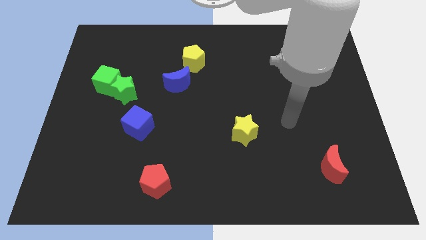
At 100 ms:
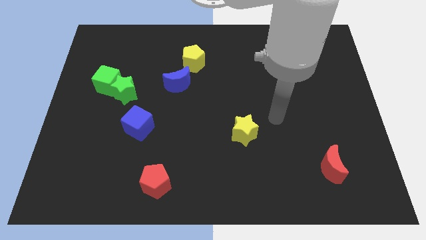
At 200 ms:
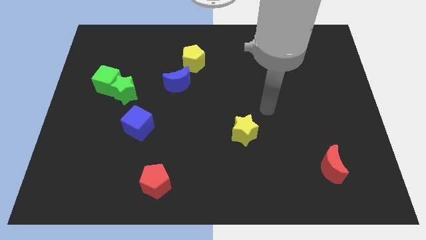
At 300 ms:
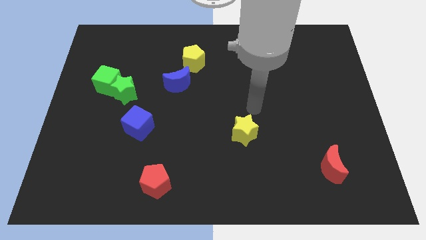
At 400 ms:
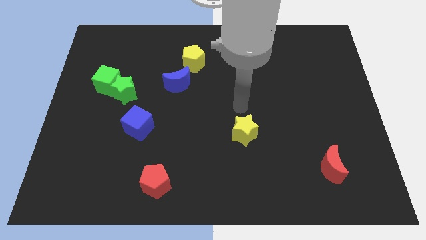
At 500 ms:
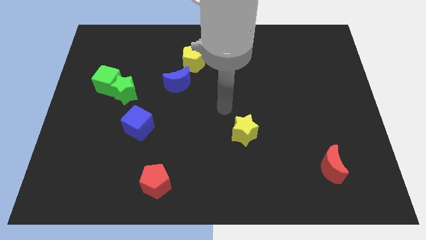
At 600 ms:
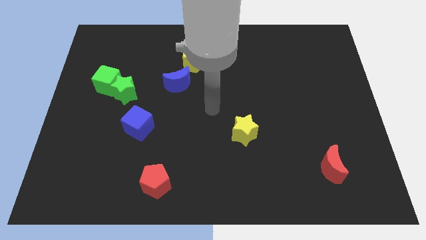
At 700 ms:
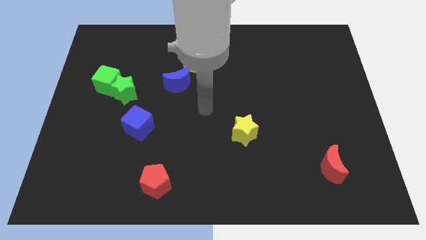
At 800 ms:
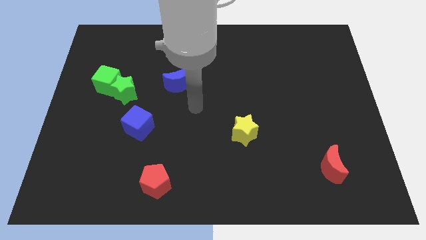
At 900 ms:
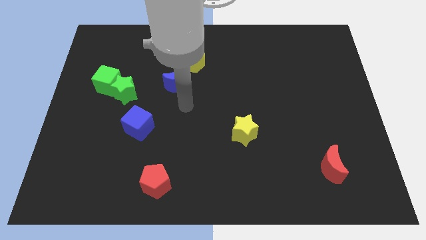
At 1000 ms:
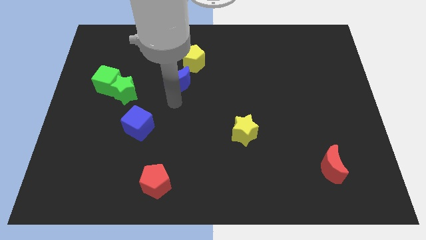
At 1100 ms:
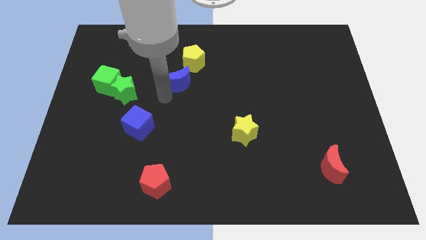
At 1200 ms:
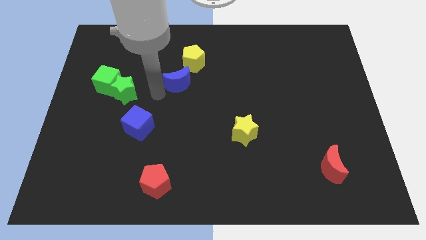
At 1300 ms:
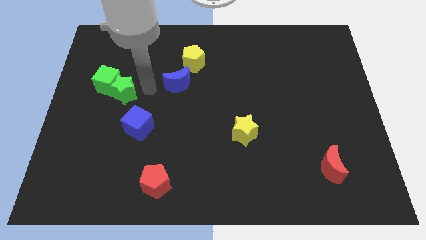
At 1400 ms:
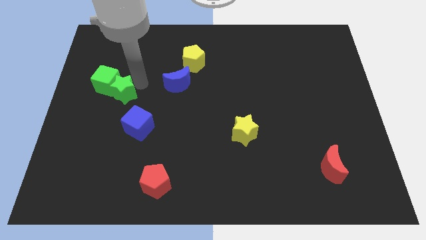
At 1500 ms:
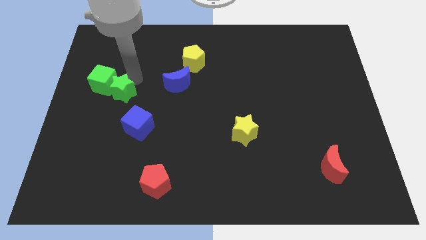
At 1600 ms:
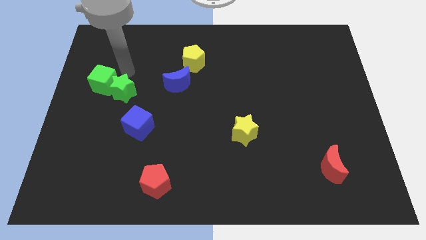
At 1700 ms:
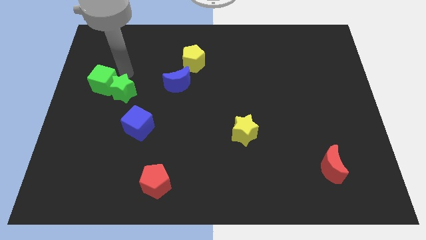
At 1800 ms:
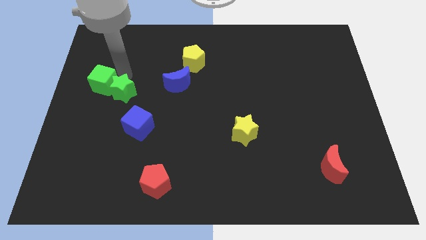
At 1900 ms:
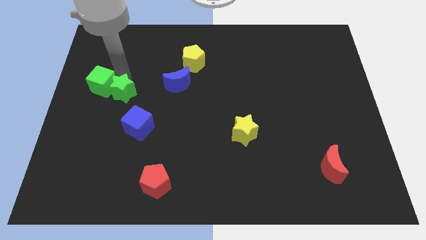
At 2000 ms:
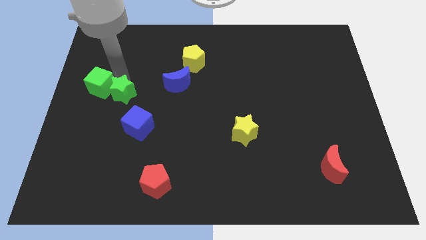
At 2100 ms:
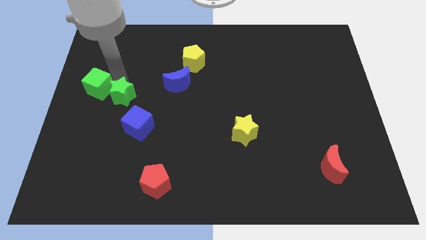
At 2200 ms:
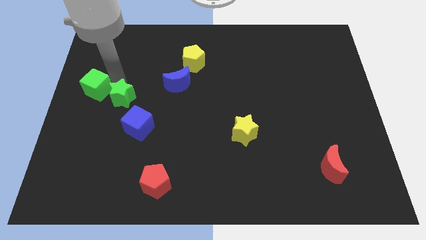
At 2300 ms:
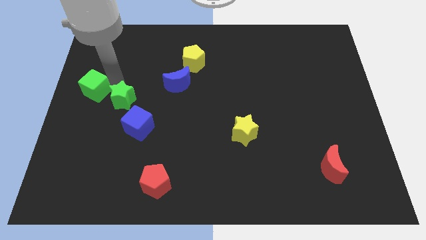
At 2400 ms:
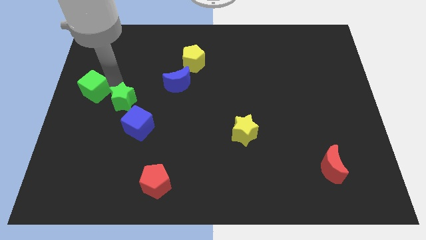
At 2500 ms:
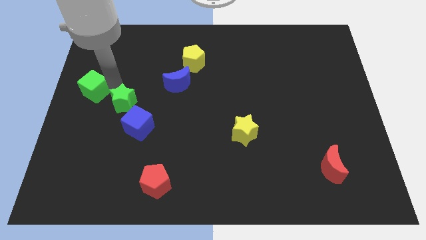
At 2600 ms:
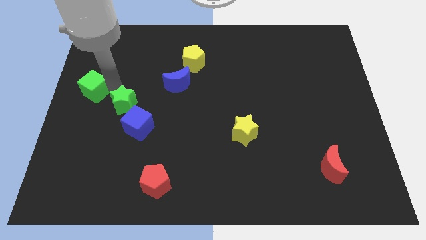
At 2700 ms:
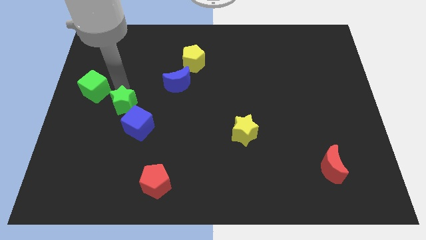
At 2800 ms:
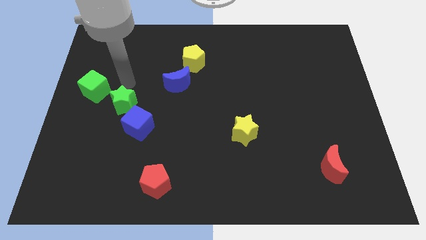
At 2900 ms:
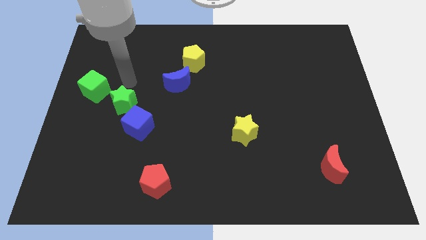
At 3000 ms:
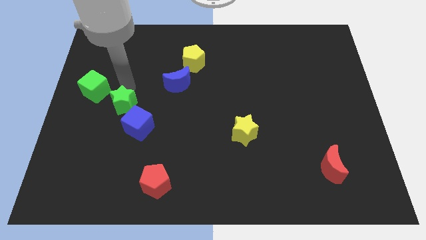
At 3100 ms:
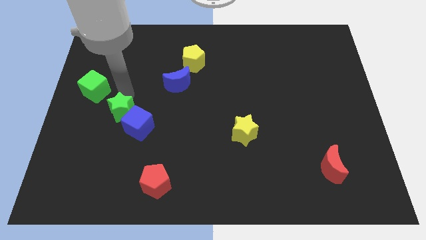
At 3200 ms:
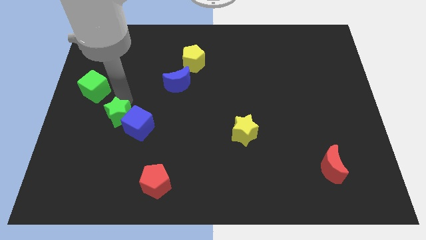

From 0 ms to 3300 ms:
push the green star a little down

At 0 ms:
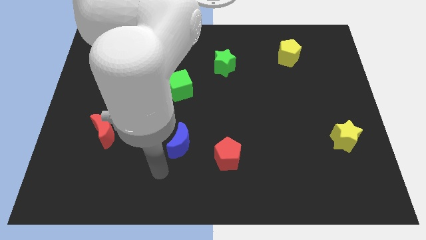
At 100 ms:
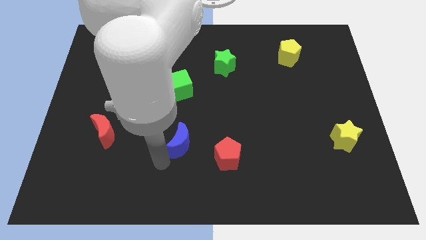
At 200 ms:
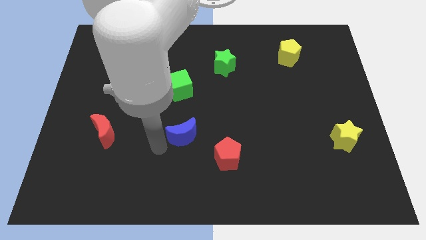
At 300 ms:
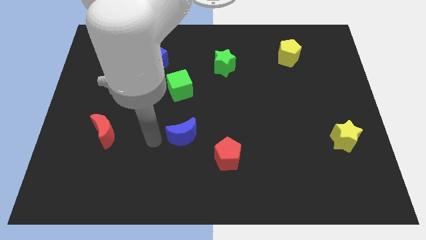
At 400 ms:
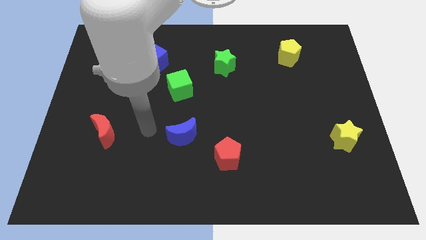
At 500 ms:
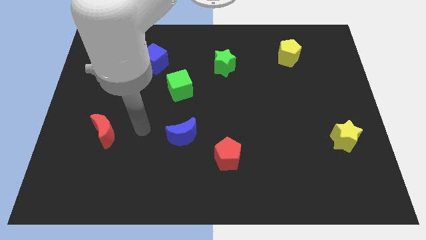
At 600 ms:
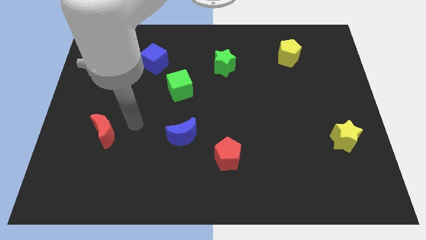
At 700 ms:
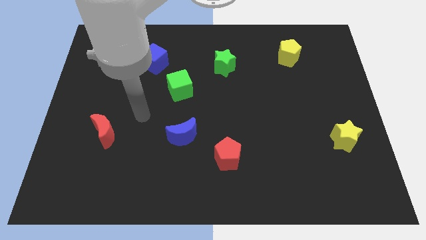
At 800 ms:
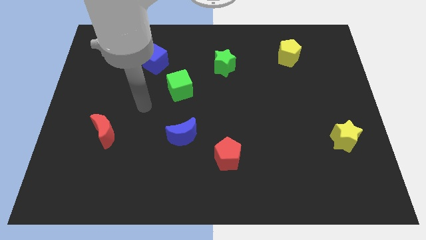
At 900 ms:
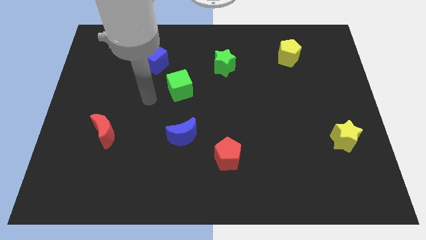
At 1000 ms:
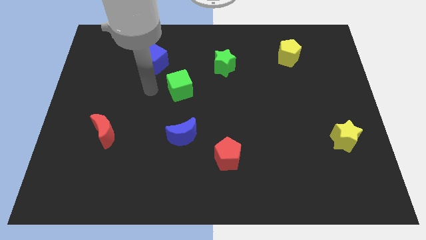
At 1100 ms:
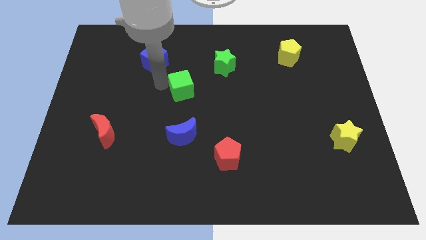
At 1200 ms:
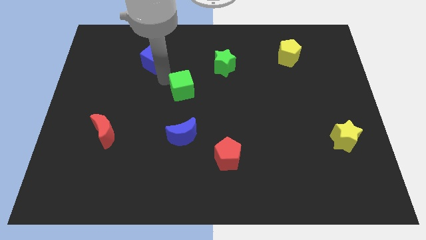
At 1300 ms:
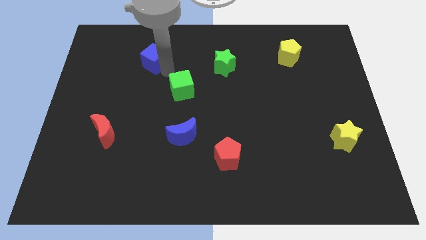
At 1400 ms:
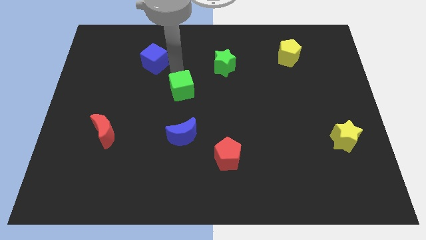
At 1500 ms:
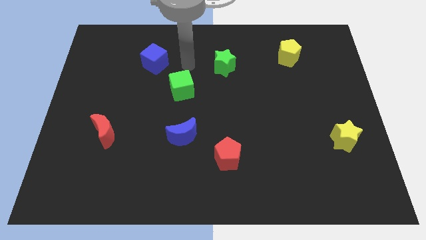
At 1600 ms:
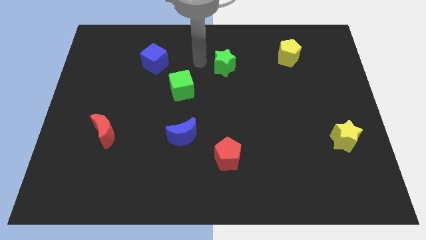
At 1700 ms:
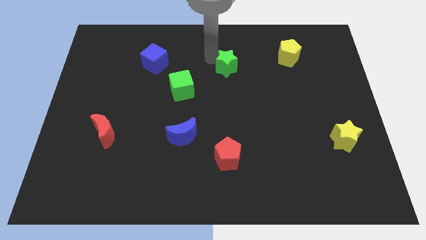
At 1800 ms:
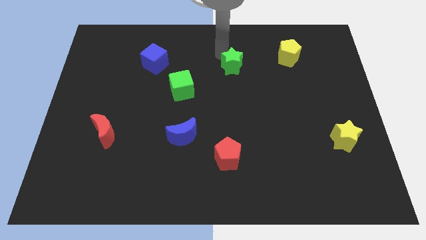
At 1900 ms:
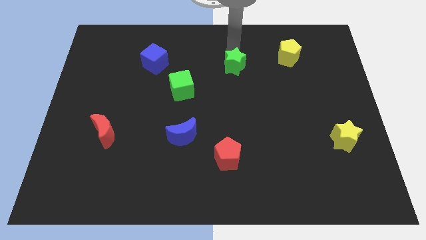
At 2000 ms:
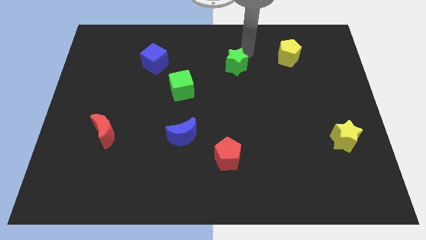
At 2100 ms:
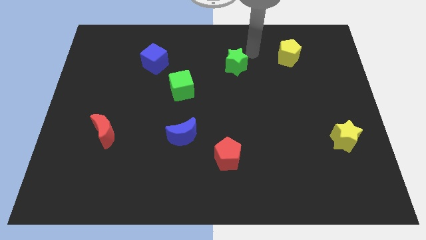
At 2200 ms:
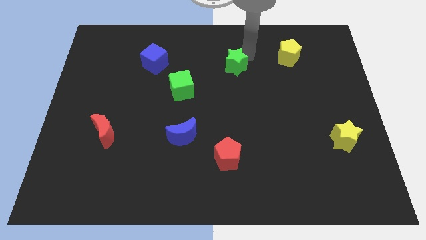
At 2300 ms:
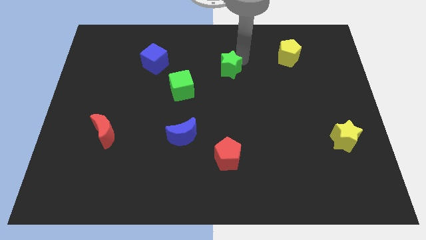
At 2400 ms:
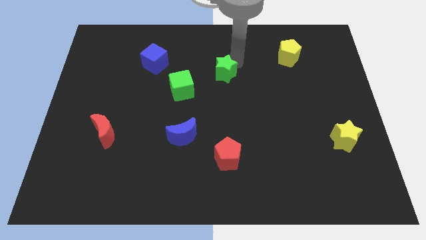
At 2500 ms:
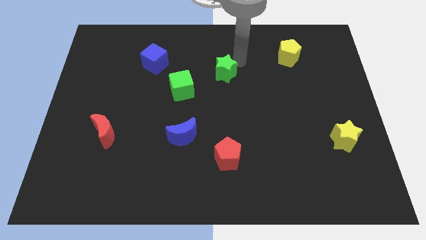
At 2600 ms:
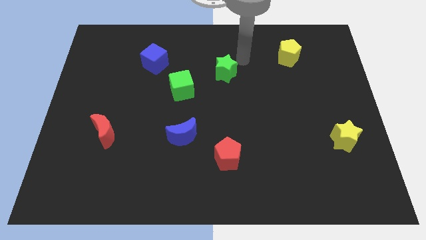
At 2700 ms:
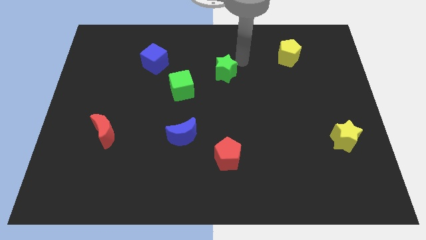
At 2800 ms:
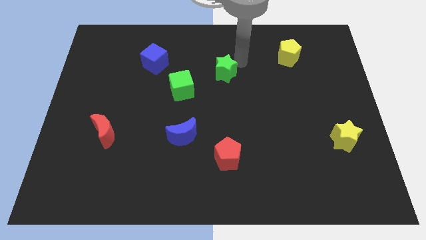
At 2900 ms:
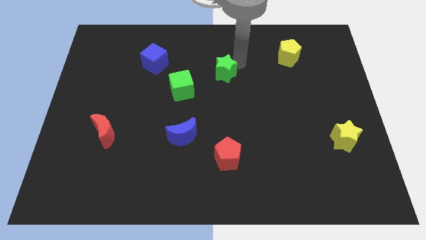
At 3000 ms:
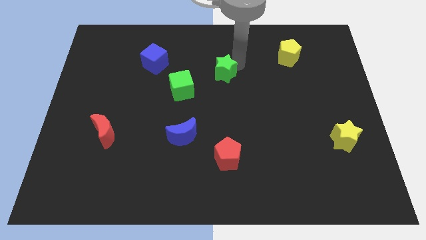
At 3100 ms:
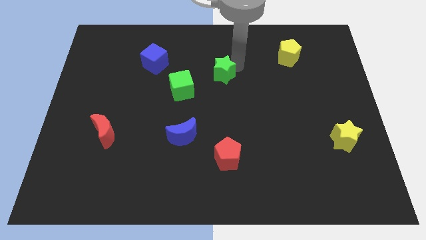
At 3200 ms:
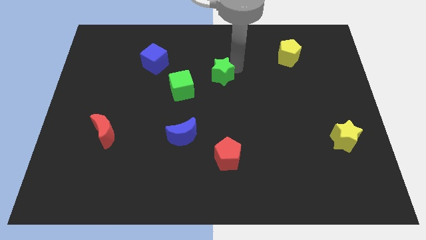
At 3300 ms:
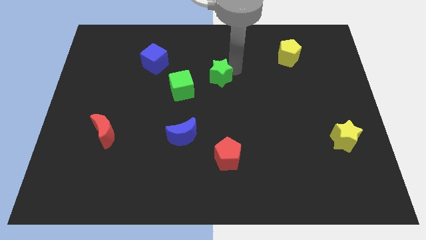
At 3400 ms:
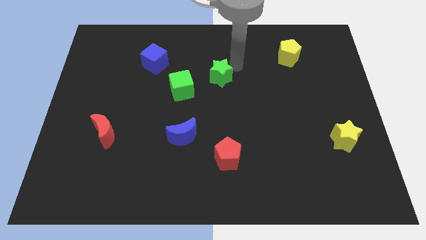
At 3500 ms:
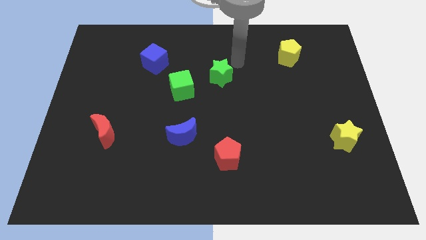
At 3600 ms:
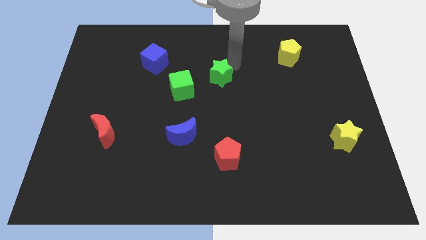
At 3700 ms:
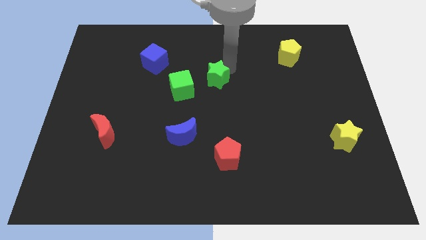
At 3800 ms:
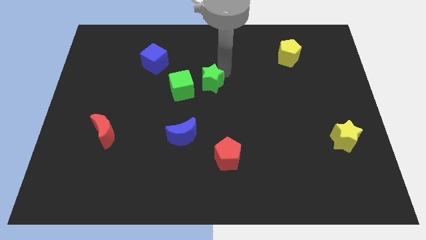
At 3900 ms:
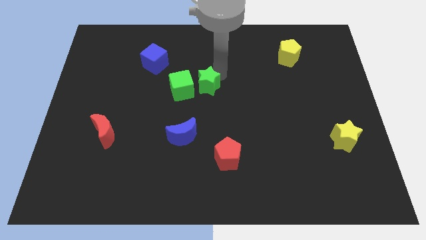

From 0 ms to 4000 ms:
move the green star downwards and then to the left somewhat

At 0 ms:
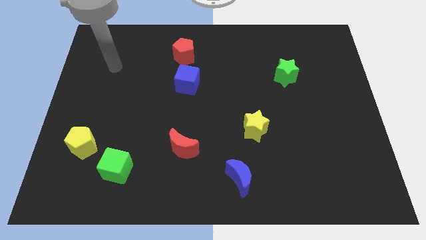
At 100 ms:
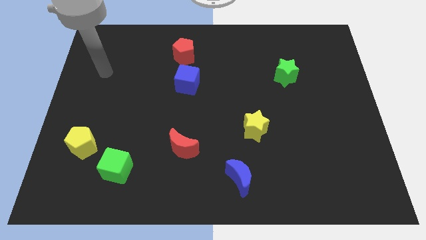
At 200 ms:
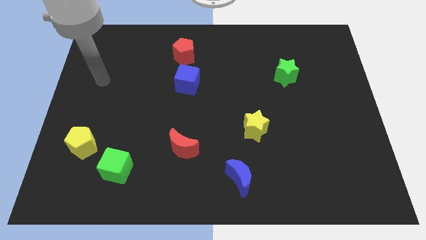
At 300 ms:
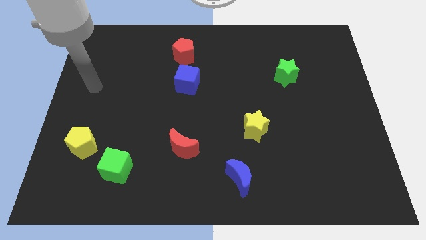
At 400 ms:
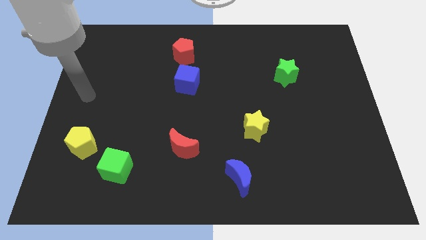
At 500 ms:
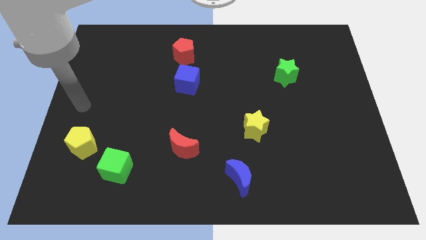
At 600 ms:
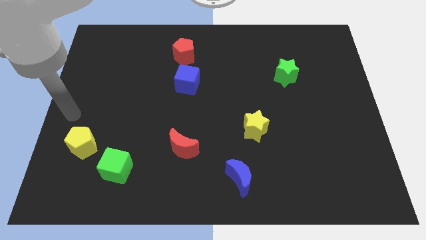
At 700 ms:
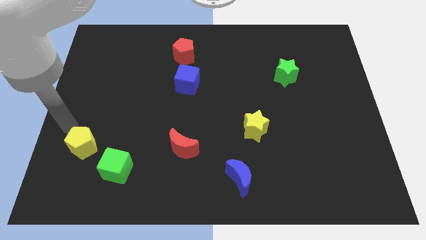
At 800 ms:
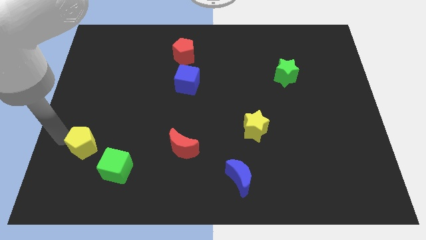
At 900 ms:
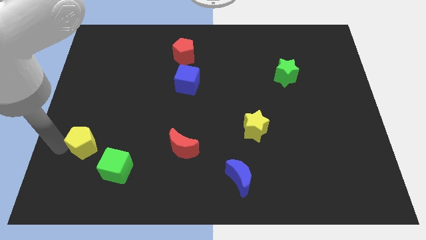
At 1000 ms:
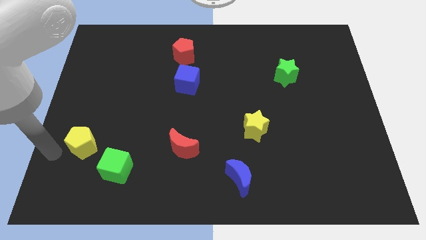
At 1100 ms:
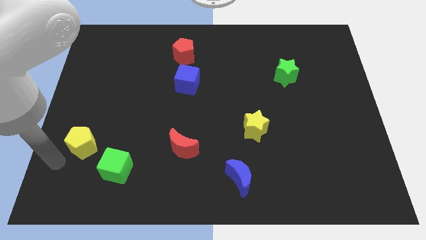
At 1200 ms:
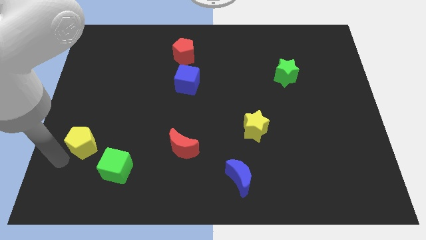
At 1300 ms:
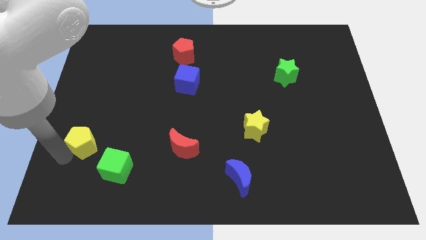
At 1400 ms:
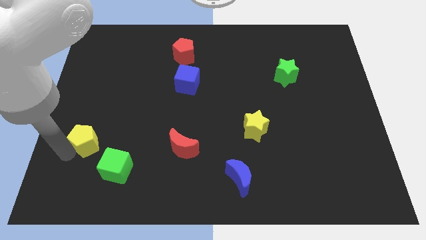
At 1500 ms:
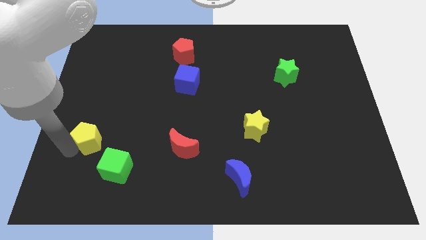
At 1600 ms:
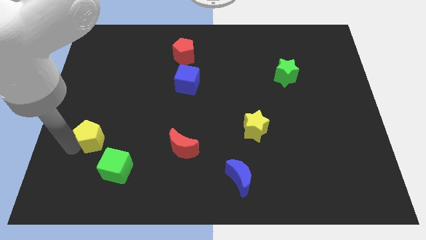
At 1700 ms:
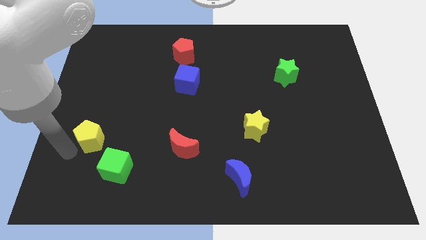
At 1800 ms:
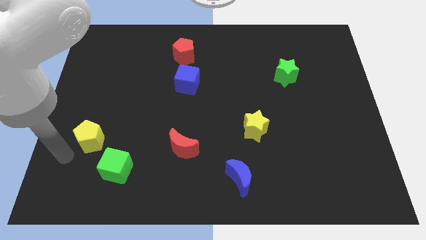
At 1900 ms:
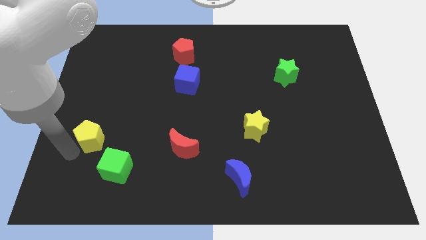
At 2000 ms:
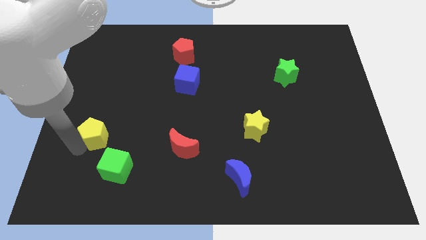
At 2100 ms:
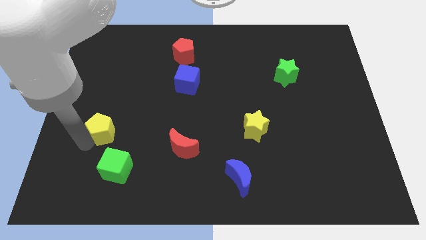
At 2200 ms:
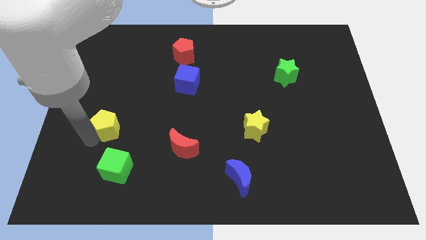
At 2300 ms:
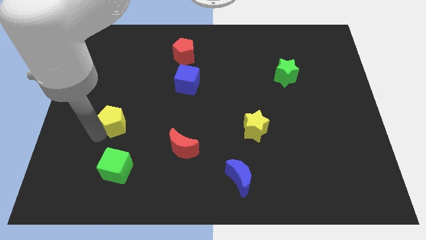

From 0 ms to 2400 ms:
slide the yellow pentagon a bit upwards and to the right diagonally
